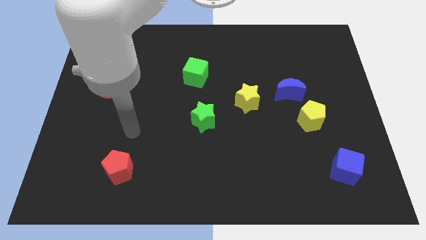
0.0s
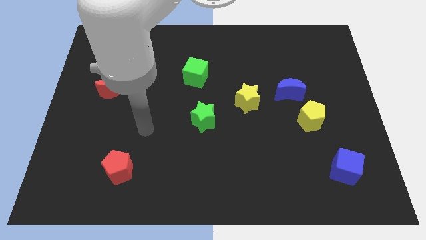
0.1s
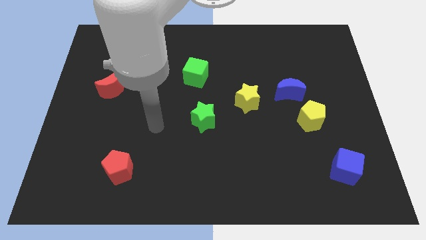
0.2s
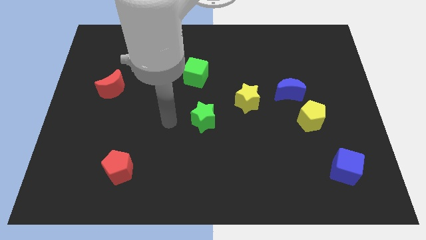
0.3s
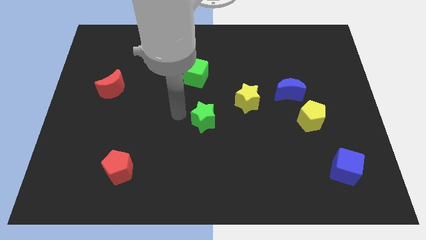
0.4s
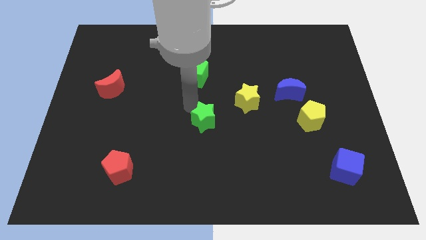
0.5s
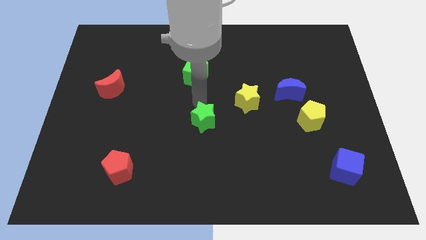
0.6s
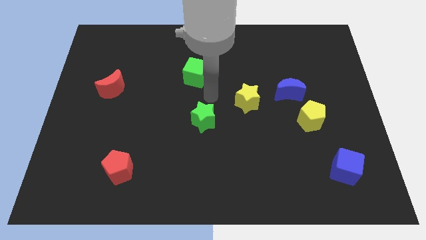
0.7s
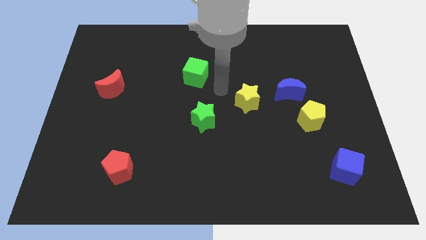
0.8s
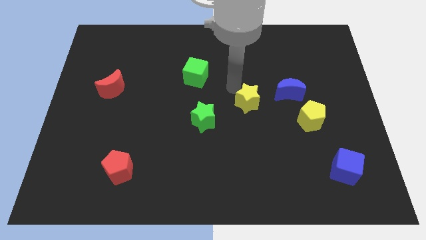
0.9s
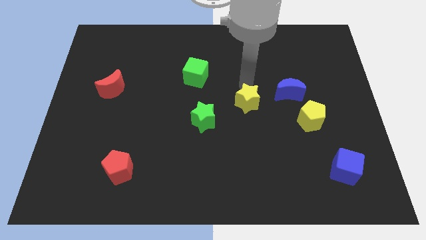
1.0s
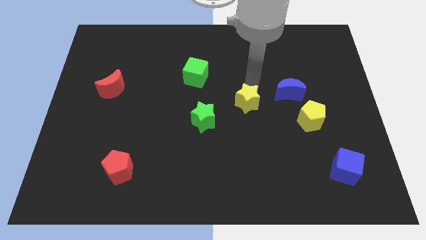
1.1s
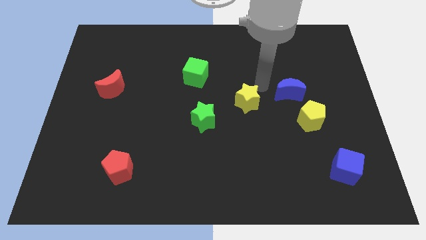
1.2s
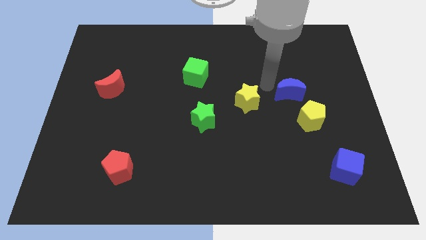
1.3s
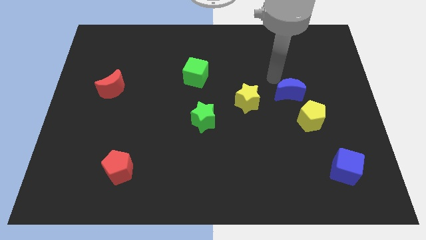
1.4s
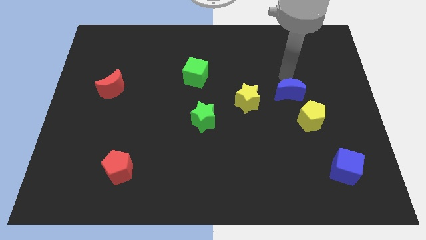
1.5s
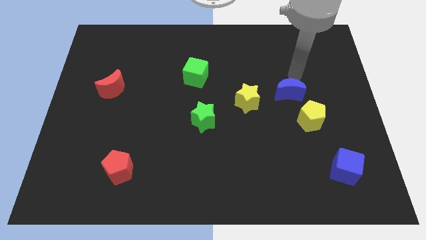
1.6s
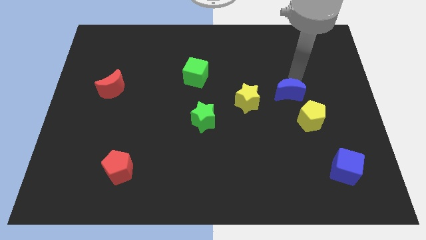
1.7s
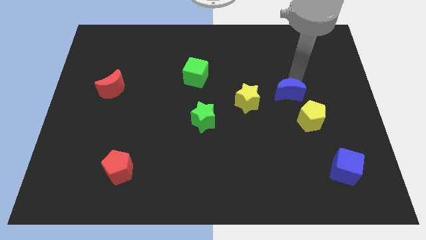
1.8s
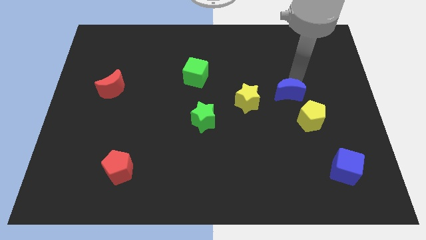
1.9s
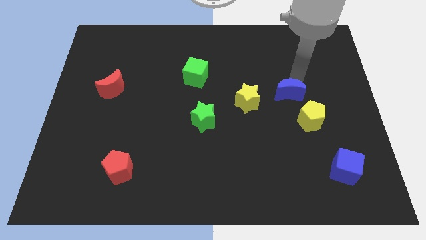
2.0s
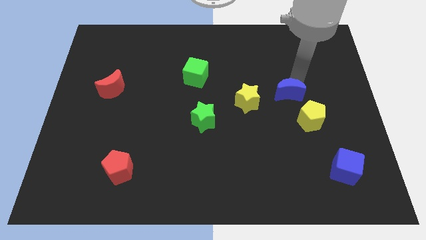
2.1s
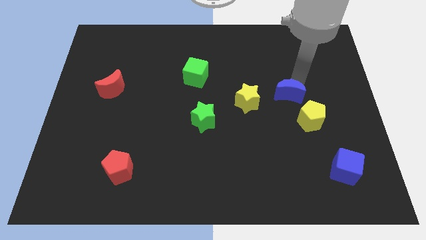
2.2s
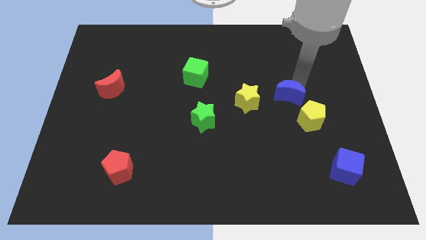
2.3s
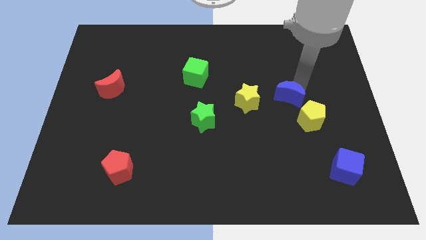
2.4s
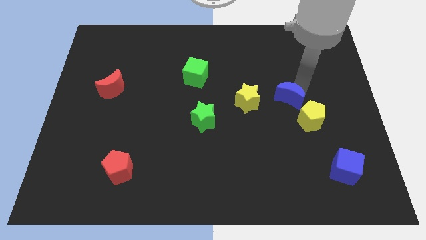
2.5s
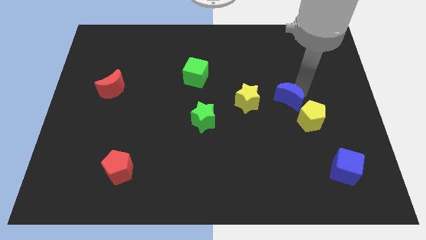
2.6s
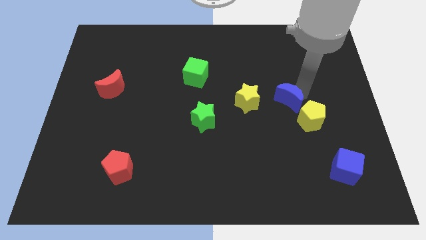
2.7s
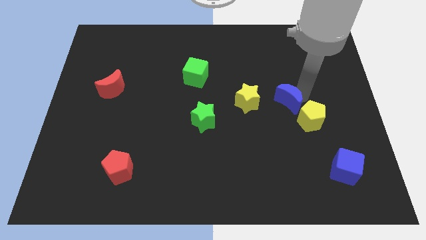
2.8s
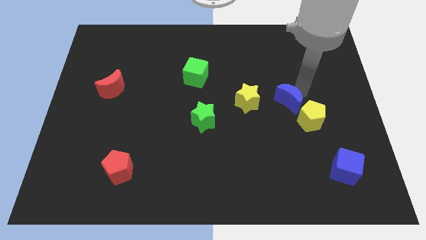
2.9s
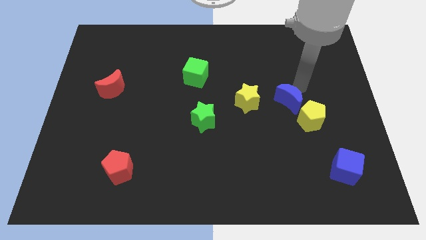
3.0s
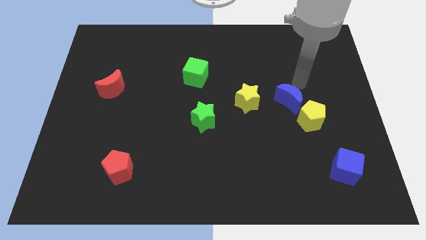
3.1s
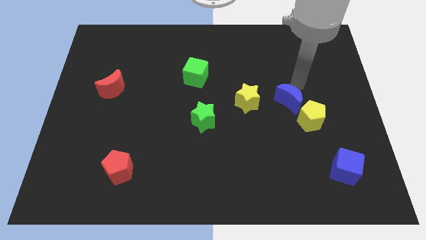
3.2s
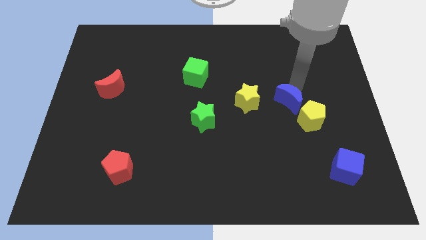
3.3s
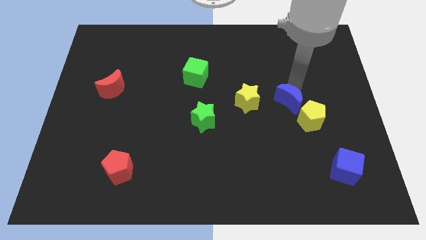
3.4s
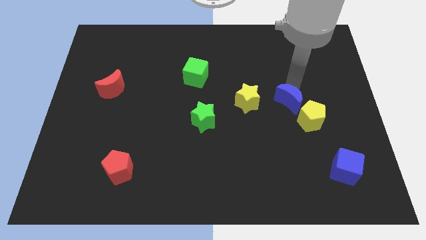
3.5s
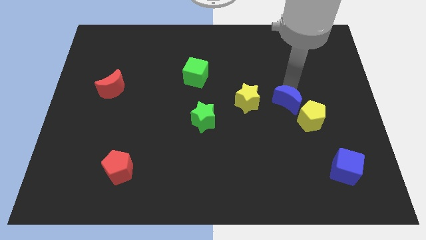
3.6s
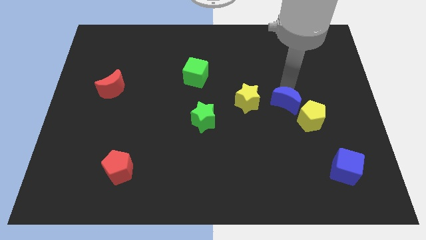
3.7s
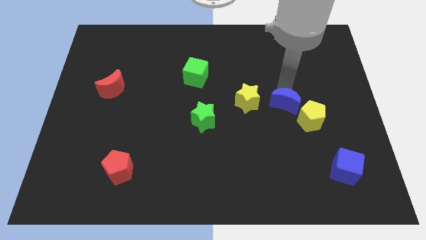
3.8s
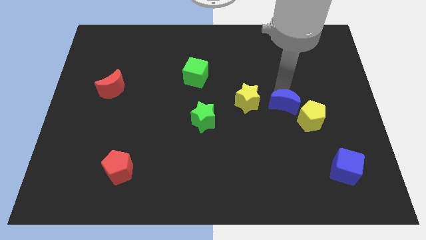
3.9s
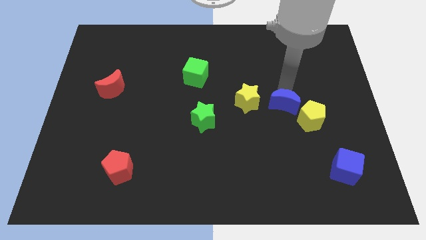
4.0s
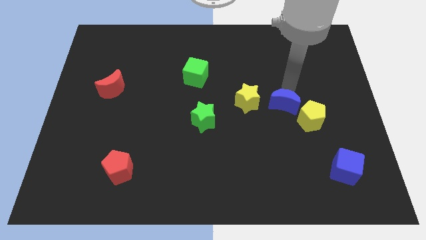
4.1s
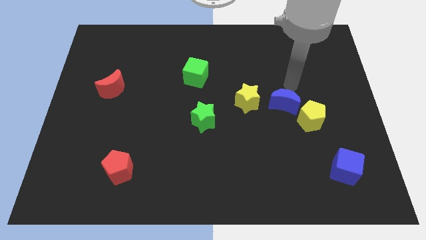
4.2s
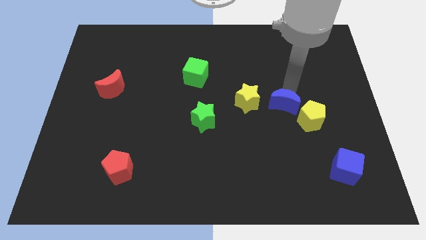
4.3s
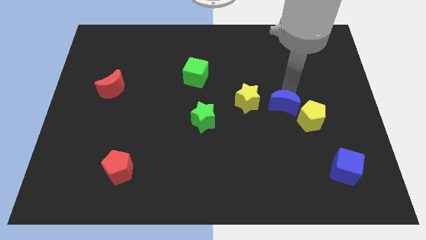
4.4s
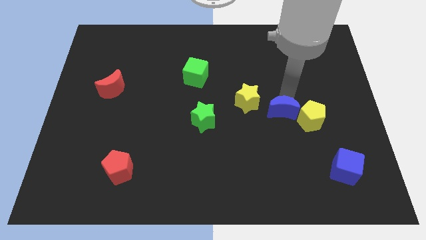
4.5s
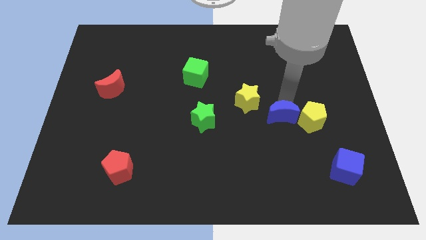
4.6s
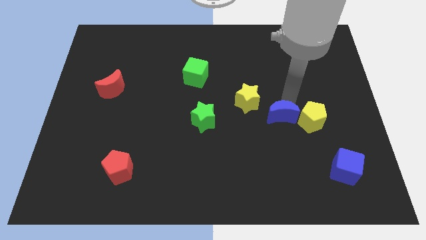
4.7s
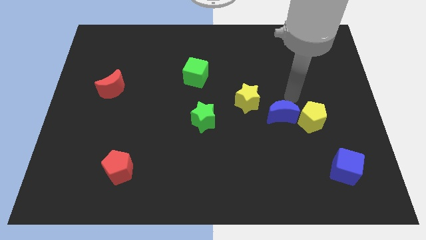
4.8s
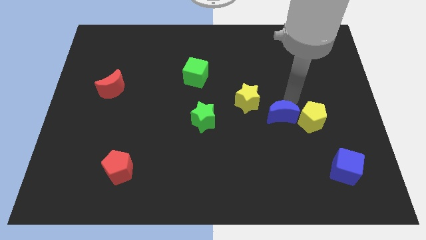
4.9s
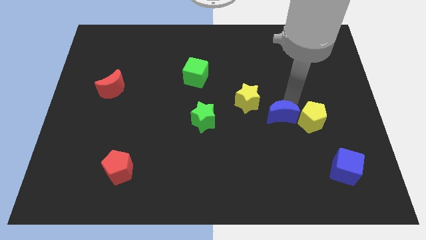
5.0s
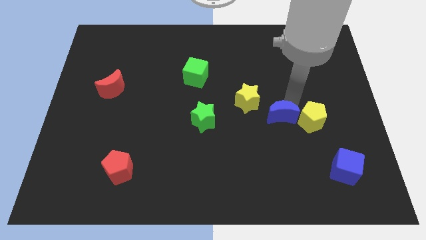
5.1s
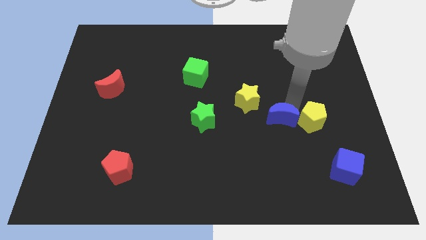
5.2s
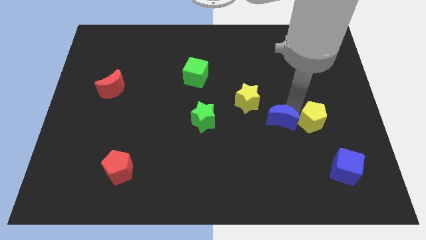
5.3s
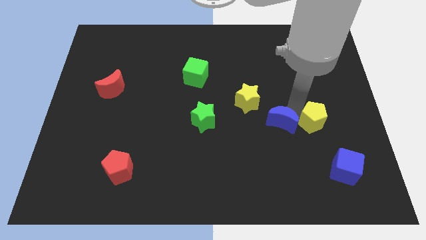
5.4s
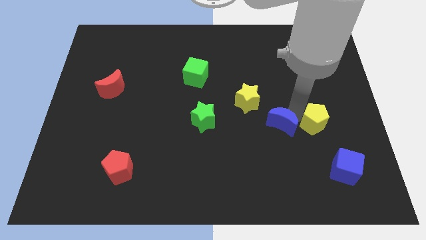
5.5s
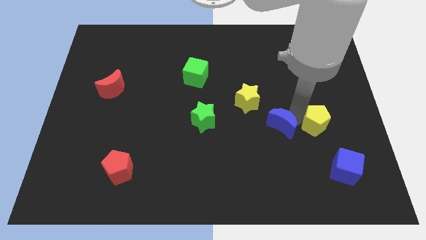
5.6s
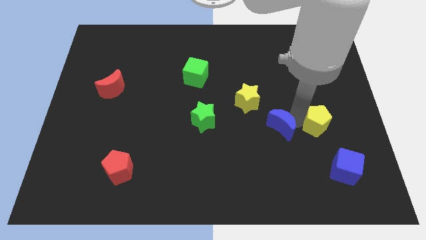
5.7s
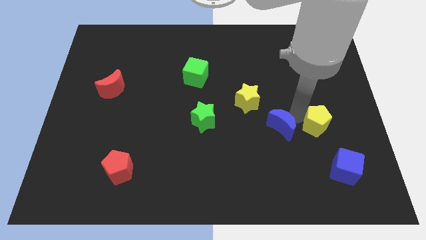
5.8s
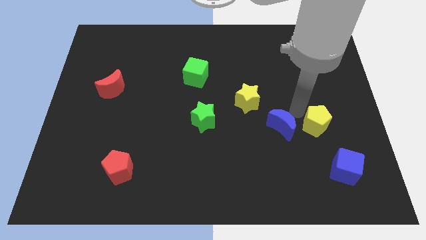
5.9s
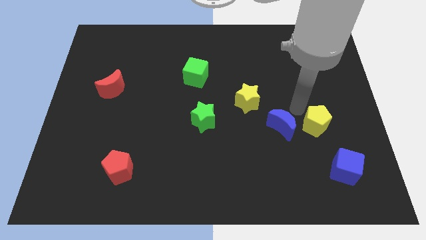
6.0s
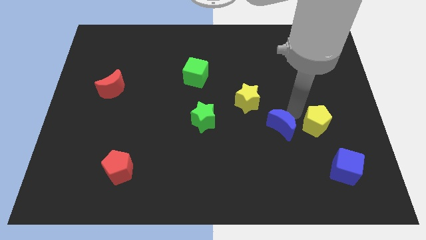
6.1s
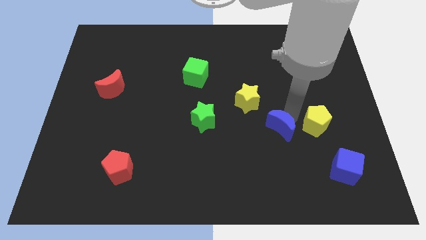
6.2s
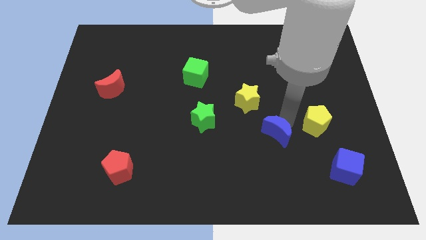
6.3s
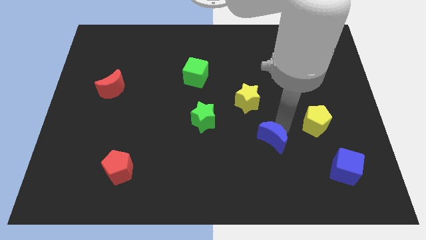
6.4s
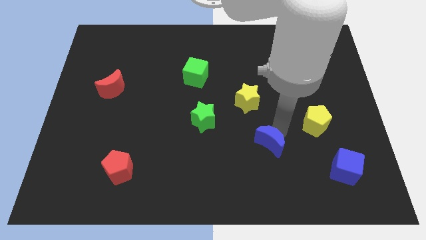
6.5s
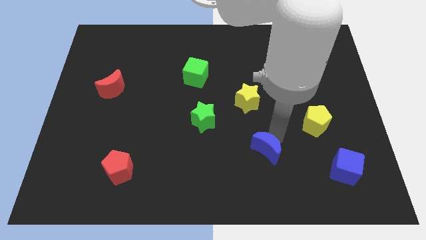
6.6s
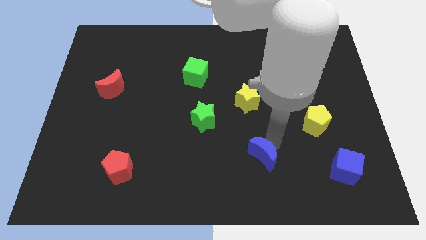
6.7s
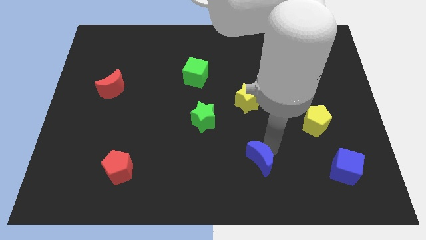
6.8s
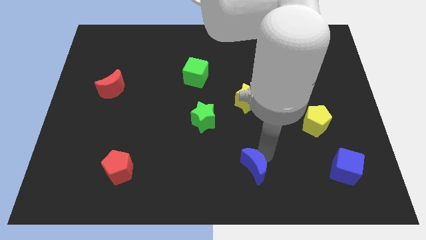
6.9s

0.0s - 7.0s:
put the blue moon to the bottom side
